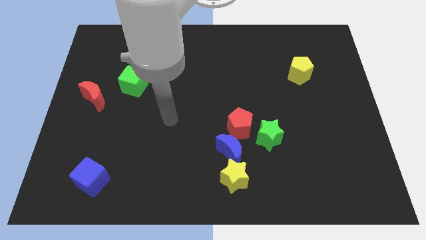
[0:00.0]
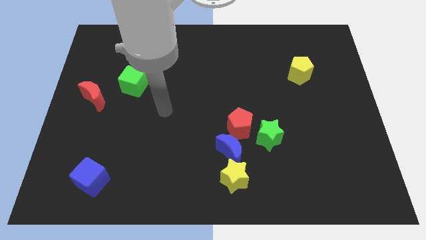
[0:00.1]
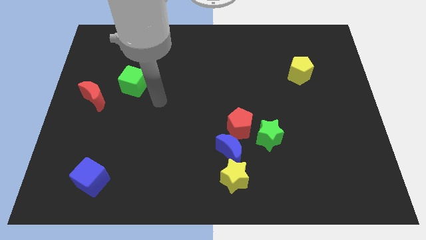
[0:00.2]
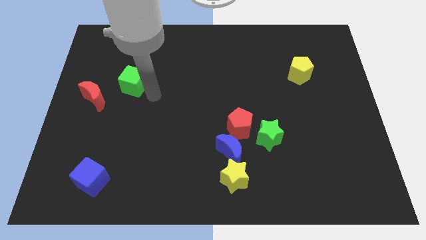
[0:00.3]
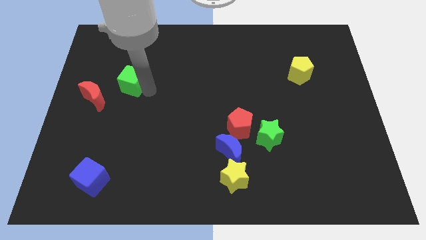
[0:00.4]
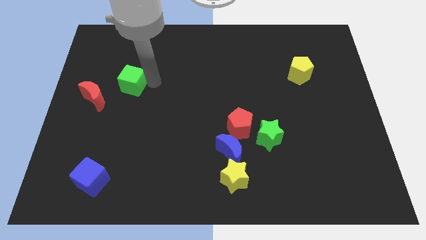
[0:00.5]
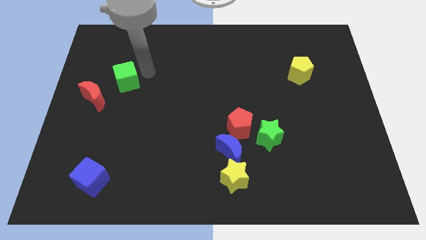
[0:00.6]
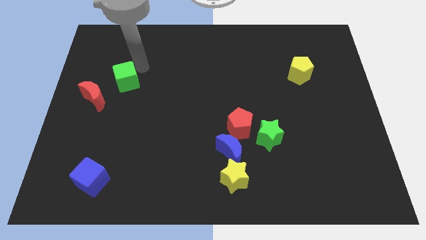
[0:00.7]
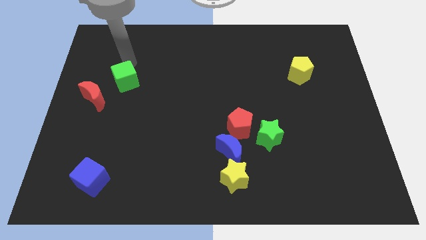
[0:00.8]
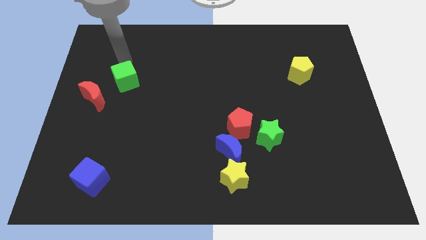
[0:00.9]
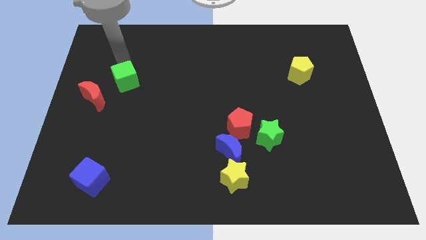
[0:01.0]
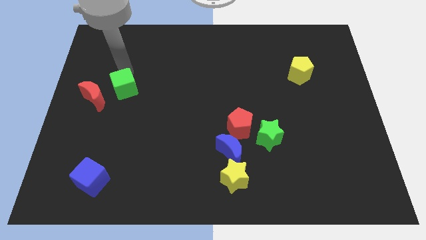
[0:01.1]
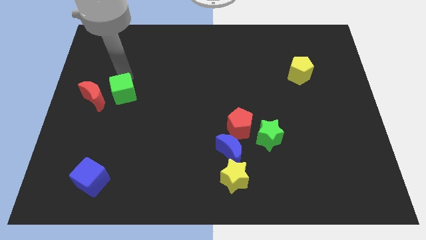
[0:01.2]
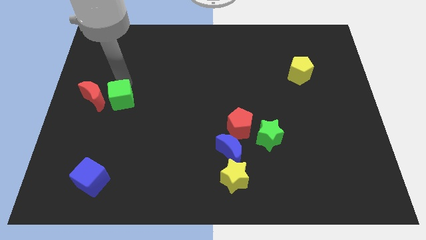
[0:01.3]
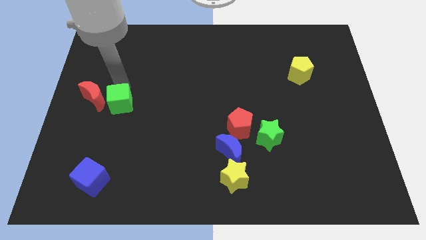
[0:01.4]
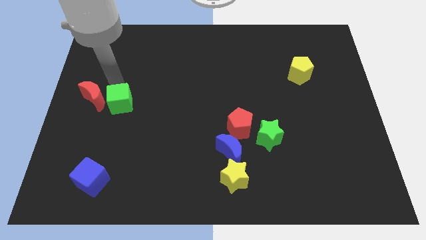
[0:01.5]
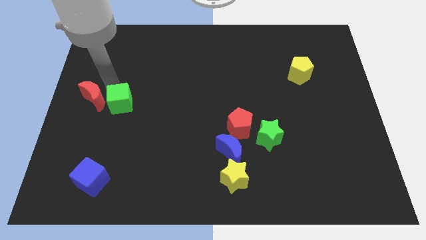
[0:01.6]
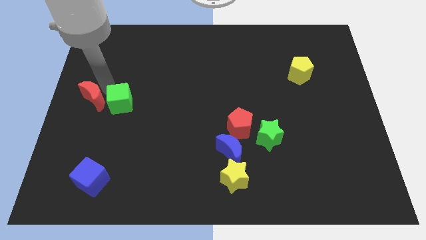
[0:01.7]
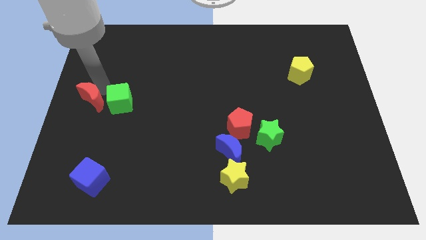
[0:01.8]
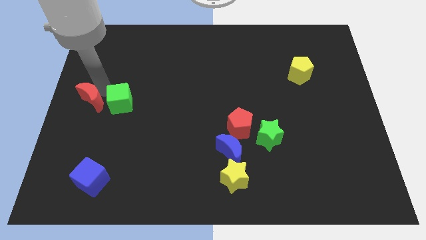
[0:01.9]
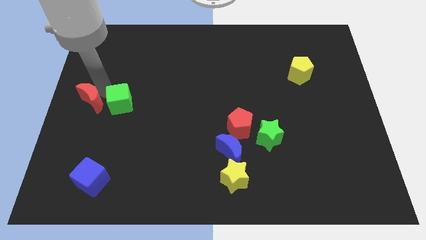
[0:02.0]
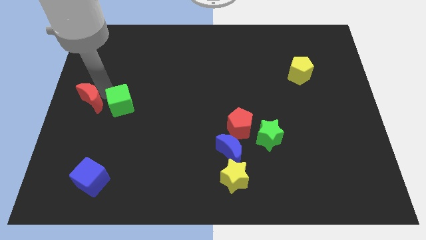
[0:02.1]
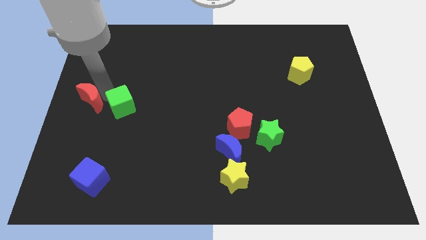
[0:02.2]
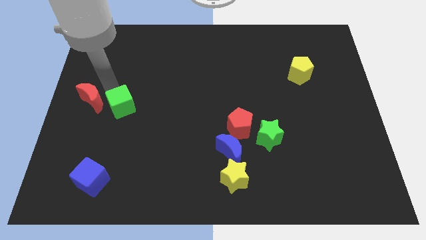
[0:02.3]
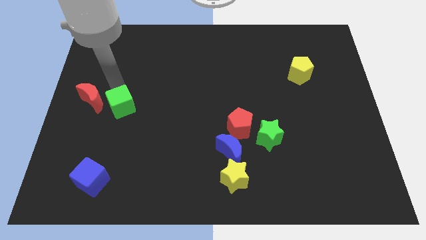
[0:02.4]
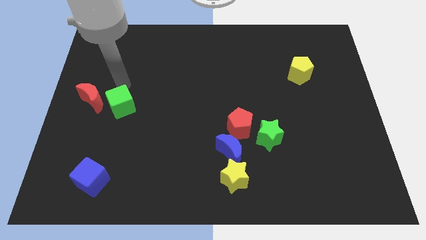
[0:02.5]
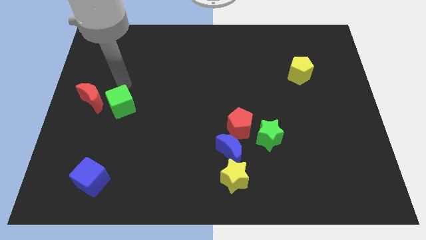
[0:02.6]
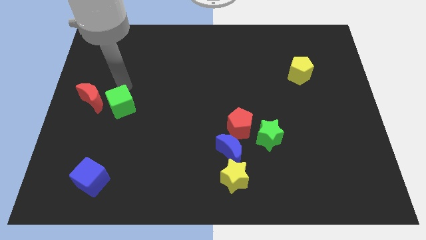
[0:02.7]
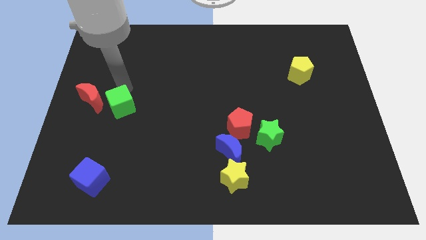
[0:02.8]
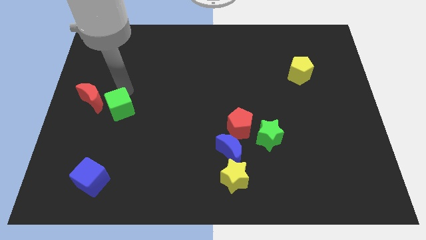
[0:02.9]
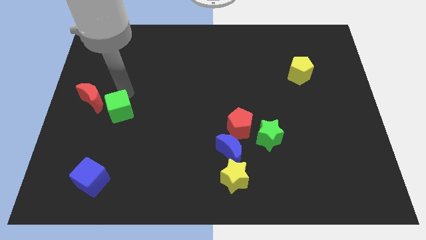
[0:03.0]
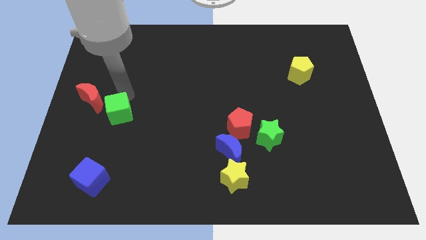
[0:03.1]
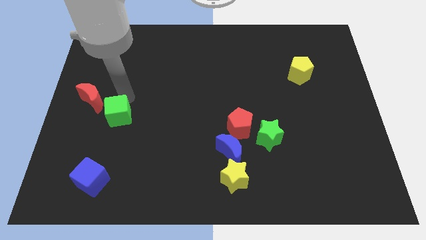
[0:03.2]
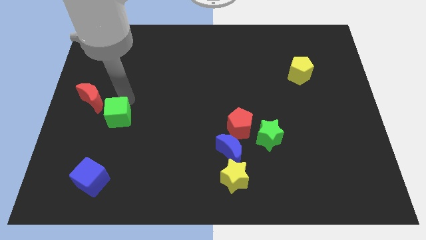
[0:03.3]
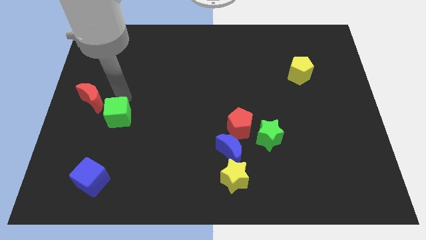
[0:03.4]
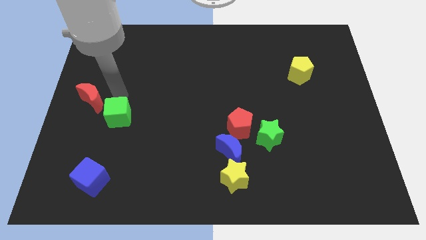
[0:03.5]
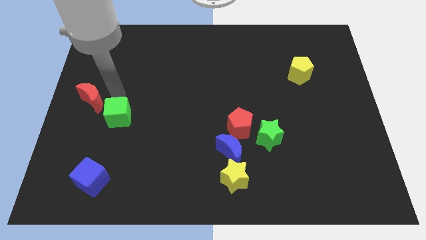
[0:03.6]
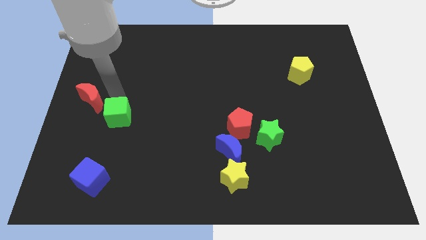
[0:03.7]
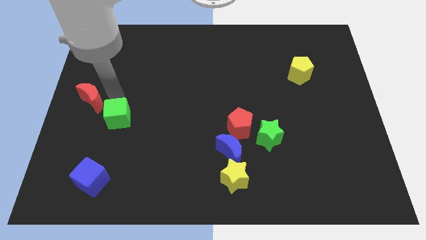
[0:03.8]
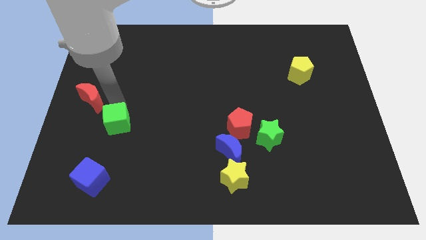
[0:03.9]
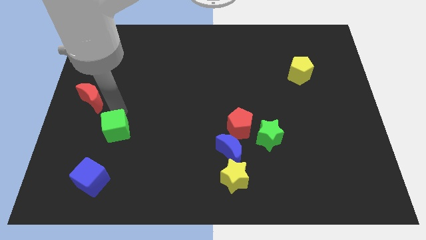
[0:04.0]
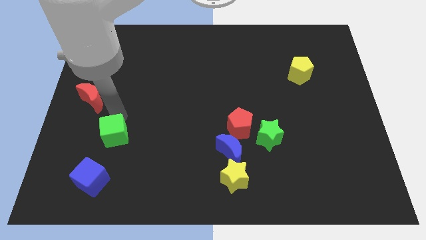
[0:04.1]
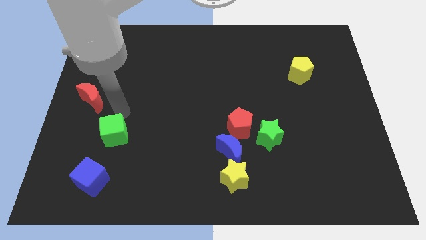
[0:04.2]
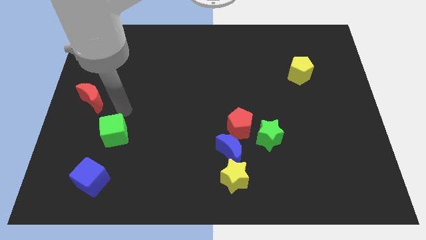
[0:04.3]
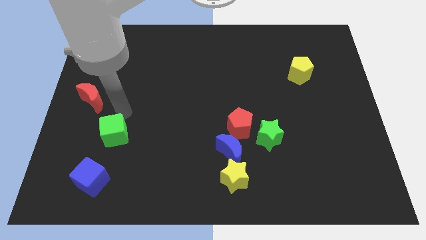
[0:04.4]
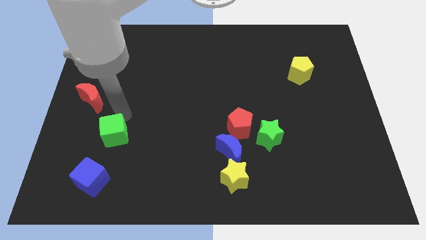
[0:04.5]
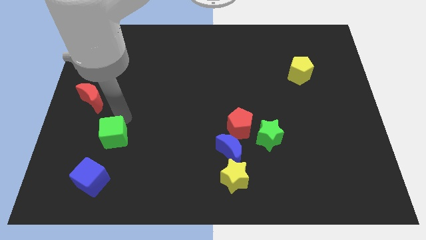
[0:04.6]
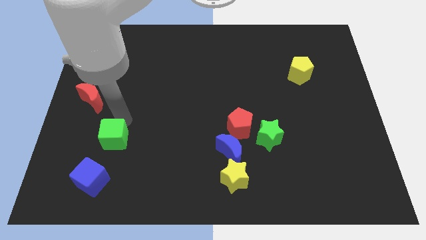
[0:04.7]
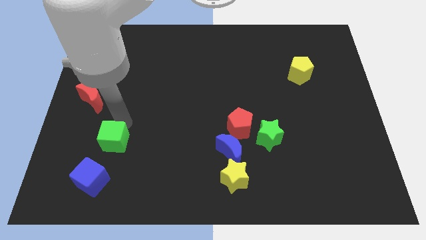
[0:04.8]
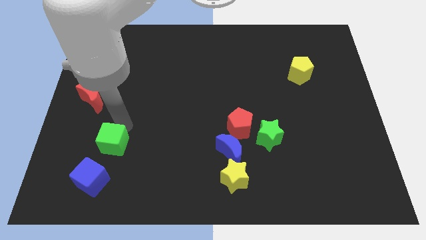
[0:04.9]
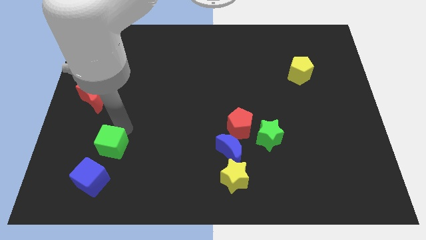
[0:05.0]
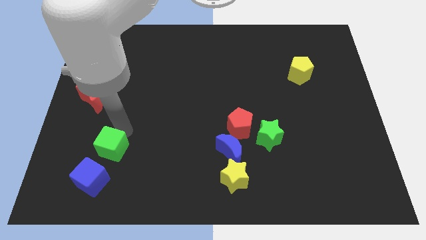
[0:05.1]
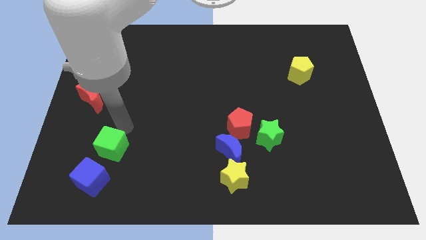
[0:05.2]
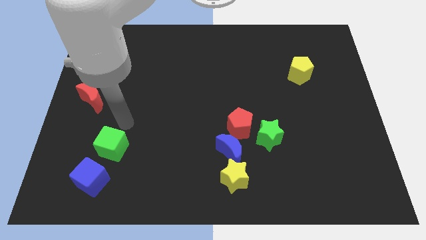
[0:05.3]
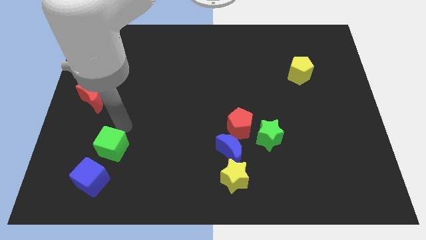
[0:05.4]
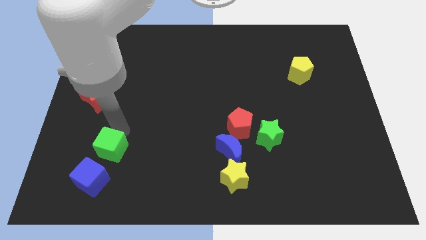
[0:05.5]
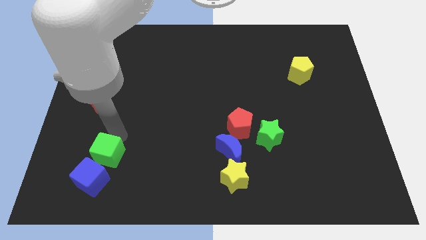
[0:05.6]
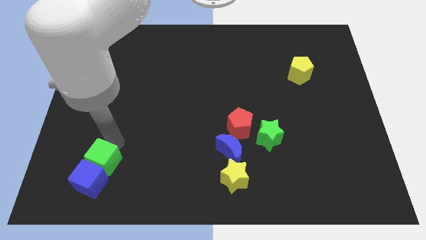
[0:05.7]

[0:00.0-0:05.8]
slide the green cube close to the blue cube

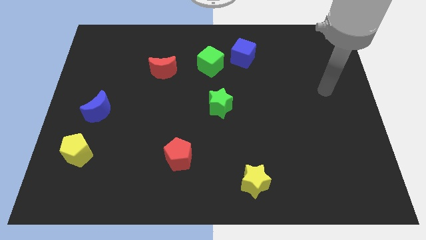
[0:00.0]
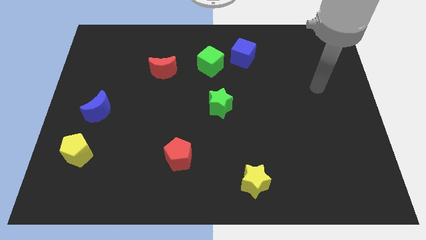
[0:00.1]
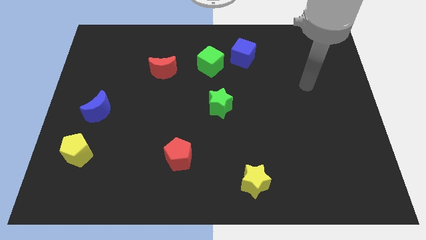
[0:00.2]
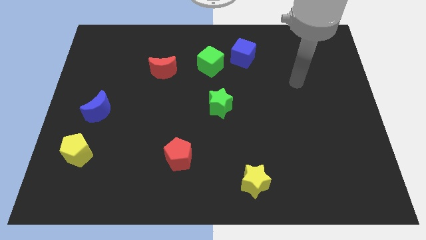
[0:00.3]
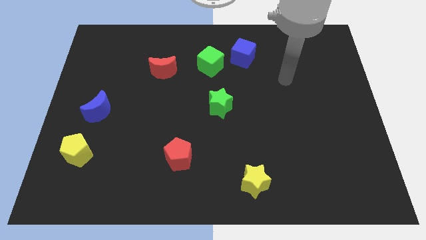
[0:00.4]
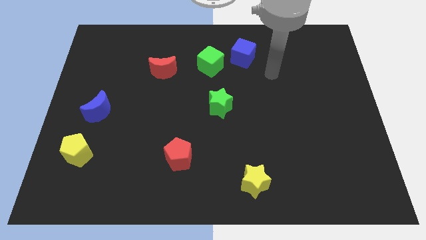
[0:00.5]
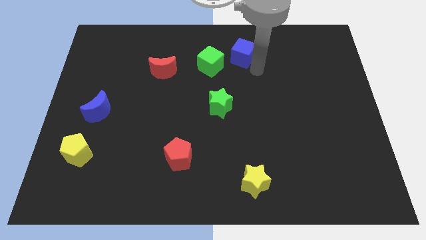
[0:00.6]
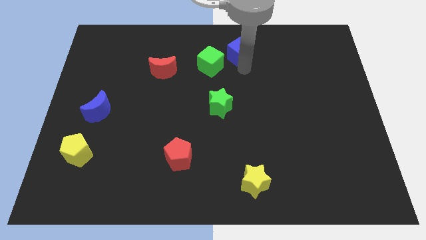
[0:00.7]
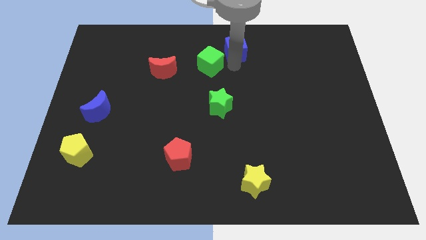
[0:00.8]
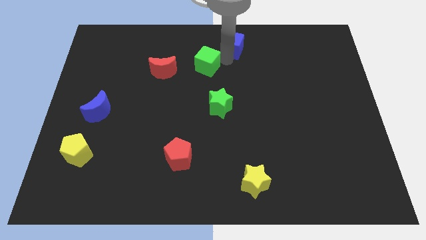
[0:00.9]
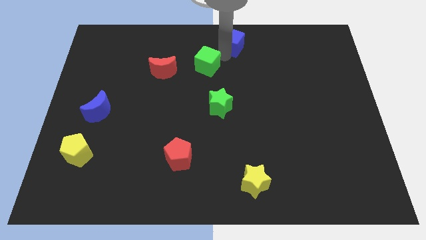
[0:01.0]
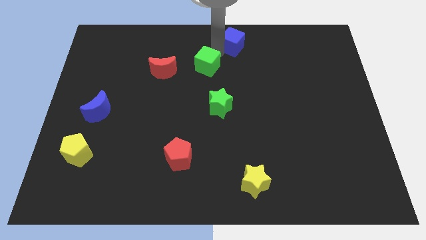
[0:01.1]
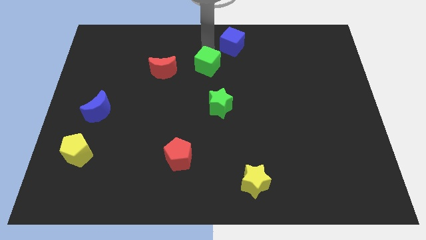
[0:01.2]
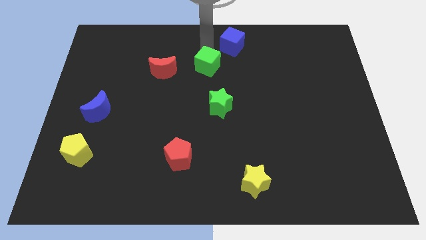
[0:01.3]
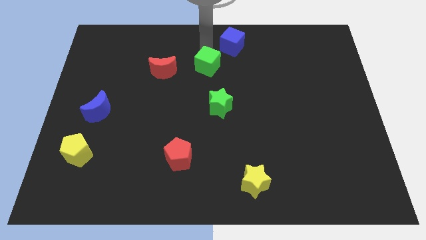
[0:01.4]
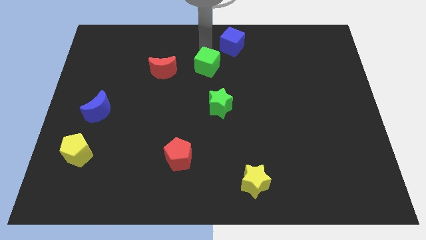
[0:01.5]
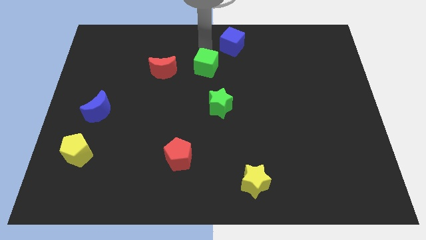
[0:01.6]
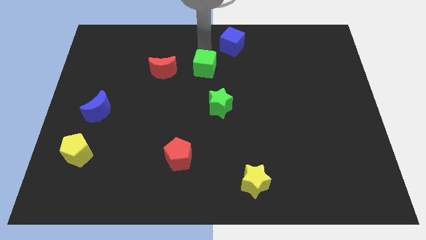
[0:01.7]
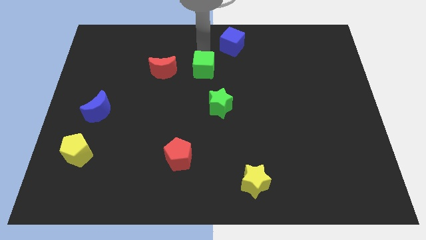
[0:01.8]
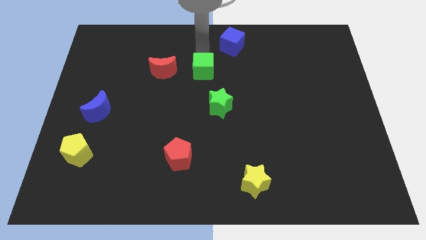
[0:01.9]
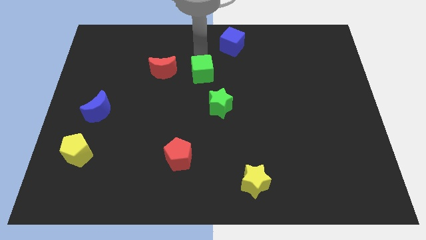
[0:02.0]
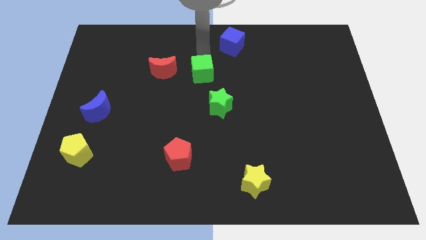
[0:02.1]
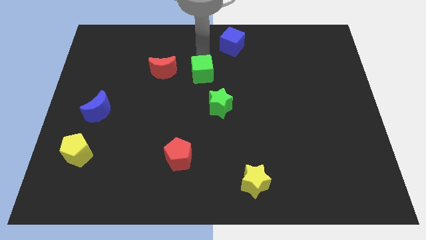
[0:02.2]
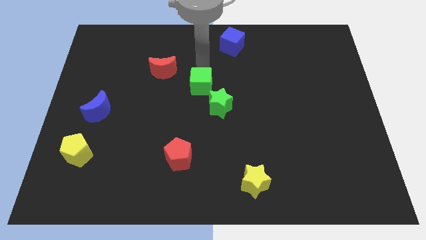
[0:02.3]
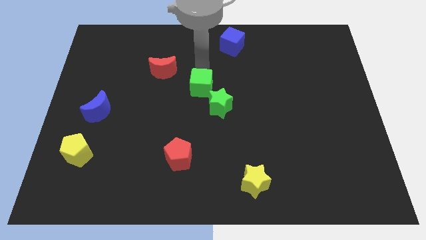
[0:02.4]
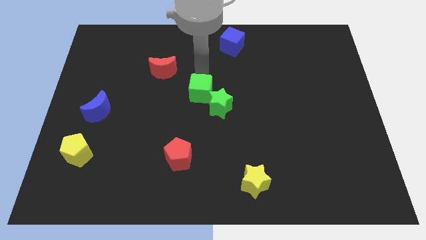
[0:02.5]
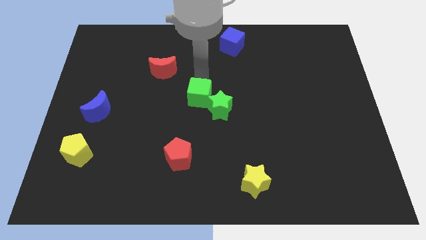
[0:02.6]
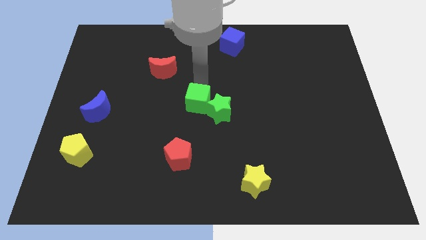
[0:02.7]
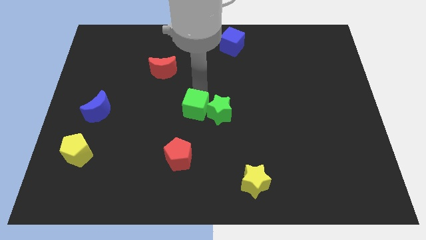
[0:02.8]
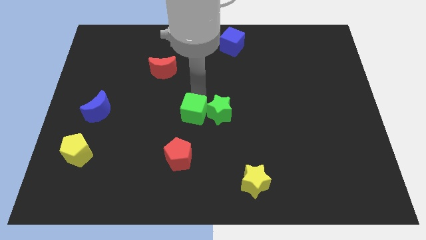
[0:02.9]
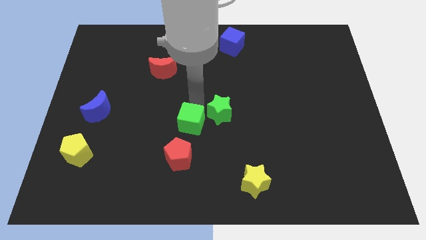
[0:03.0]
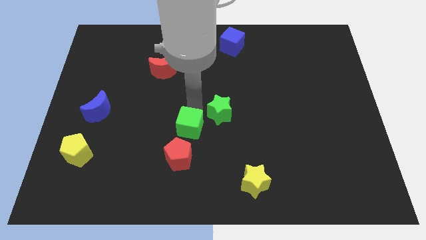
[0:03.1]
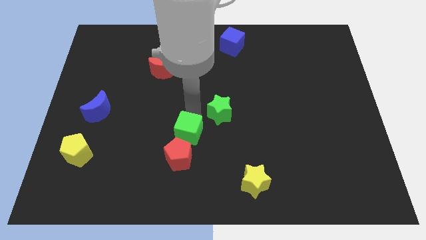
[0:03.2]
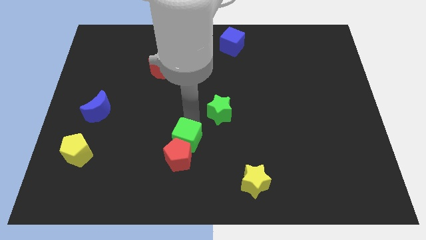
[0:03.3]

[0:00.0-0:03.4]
push the green cube next to the red pentagon
